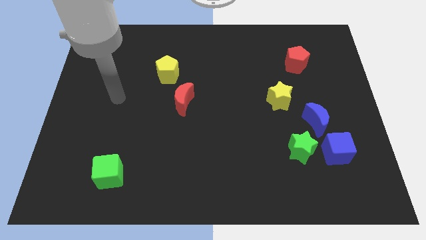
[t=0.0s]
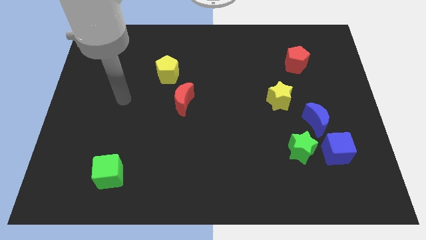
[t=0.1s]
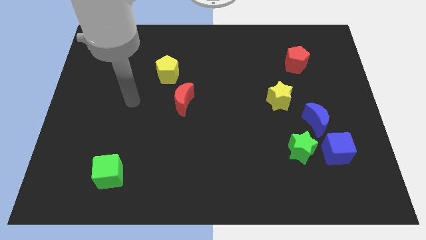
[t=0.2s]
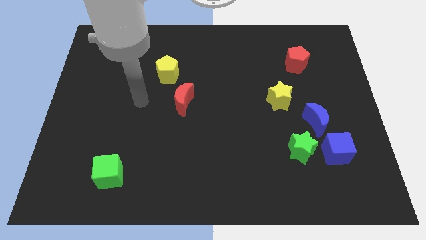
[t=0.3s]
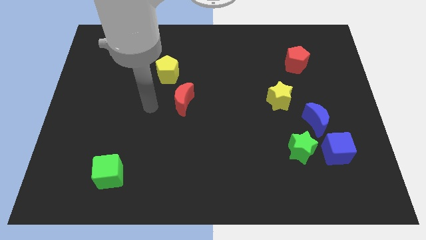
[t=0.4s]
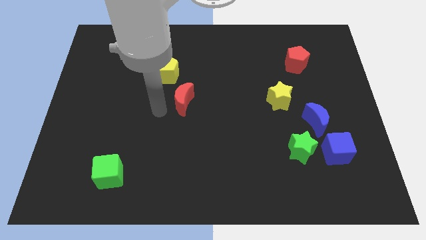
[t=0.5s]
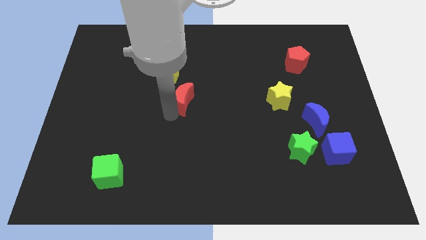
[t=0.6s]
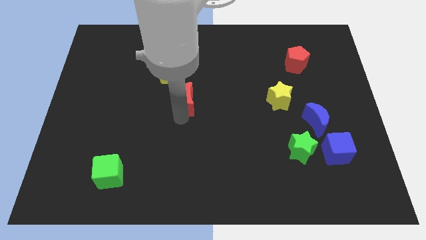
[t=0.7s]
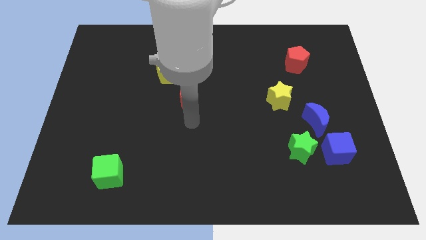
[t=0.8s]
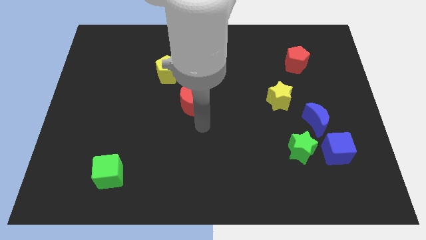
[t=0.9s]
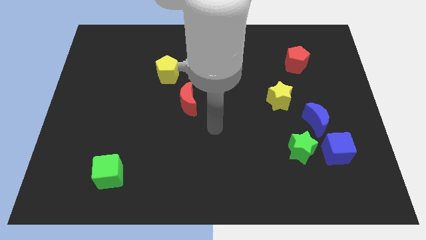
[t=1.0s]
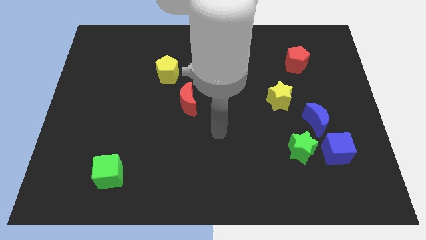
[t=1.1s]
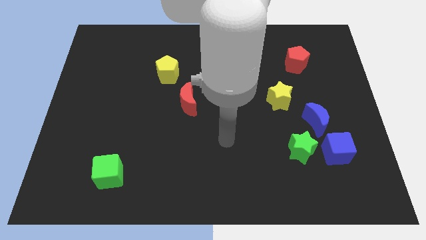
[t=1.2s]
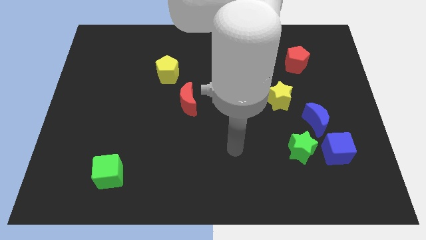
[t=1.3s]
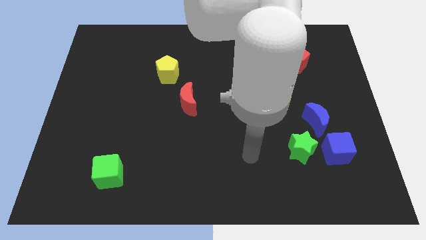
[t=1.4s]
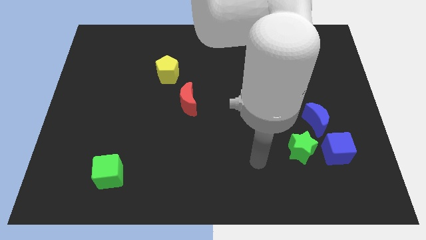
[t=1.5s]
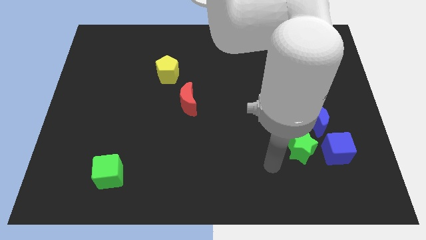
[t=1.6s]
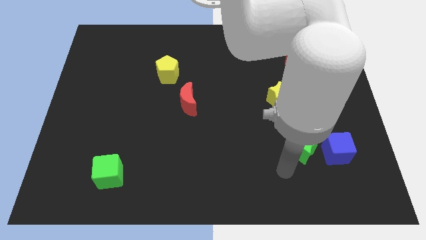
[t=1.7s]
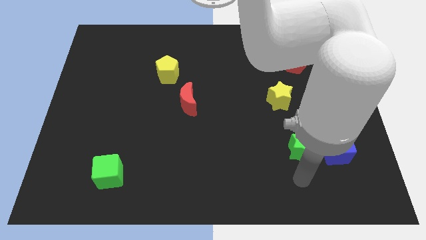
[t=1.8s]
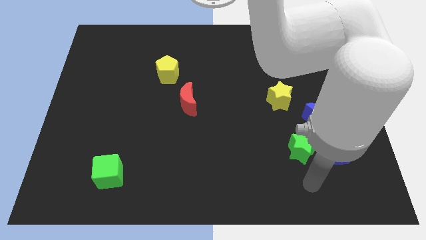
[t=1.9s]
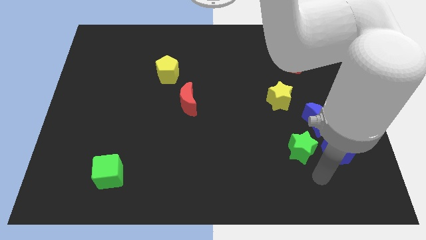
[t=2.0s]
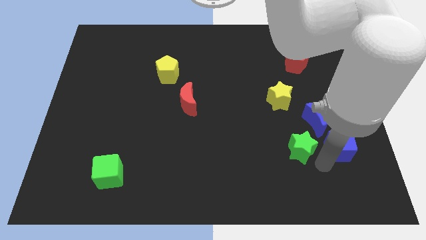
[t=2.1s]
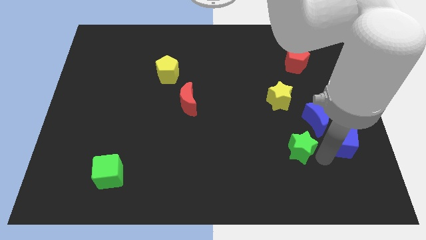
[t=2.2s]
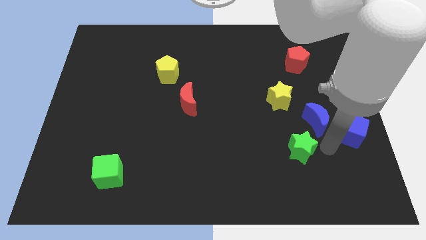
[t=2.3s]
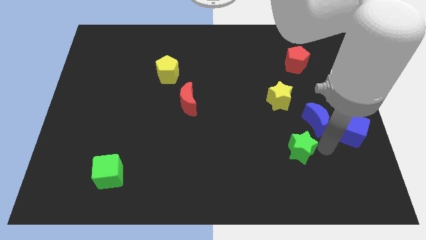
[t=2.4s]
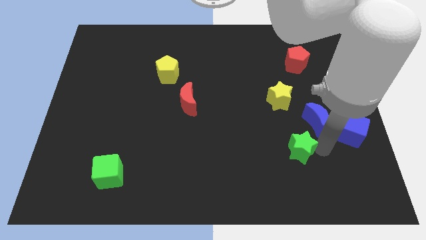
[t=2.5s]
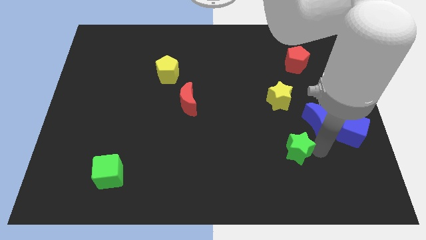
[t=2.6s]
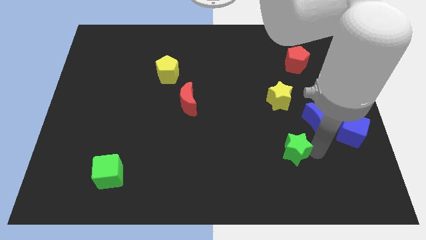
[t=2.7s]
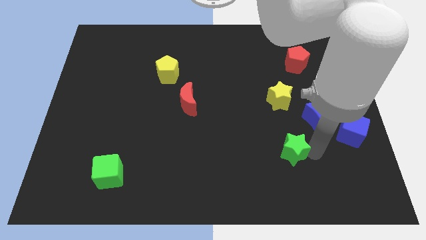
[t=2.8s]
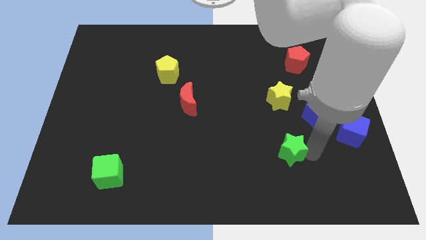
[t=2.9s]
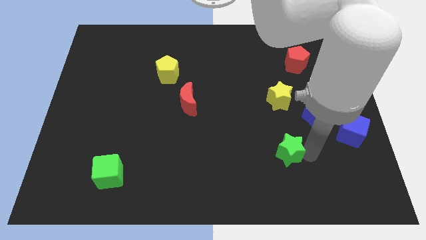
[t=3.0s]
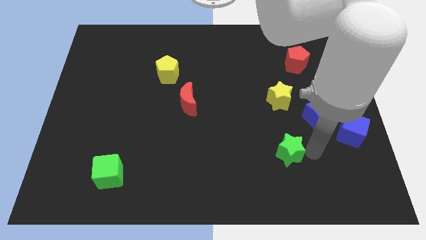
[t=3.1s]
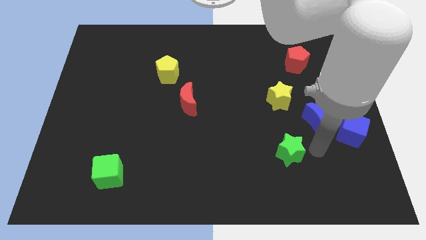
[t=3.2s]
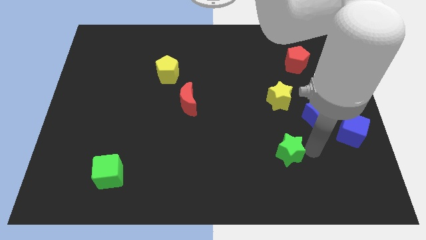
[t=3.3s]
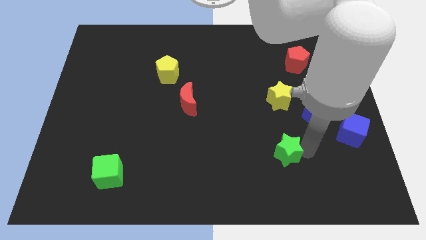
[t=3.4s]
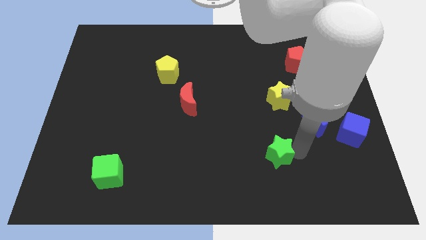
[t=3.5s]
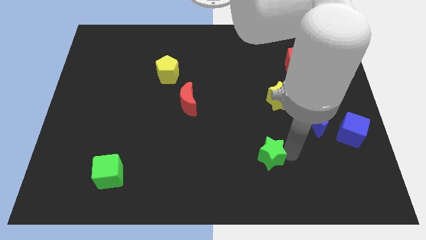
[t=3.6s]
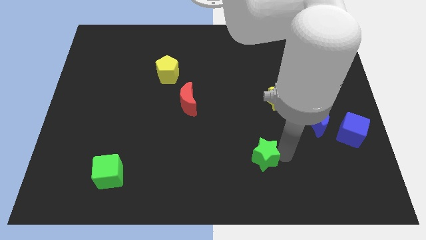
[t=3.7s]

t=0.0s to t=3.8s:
slightly slide the green star to the left

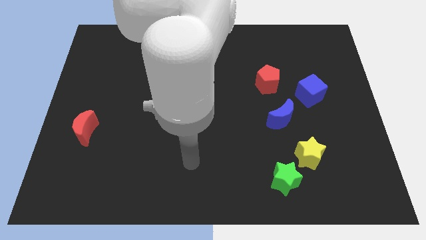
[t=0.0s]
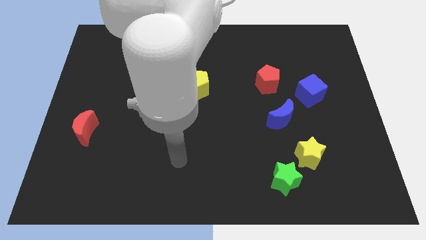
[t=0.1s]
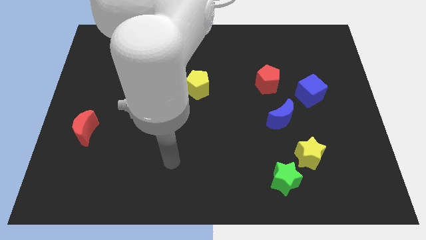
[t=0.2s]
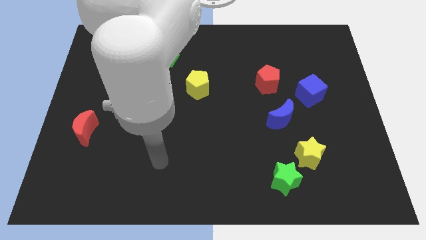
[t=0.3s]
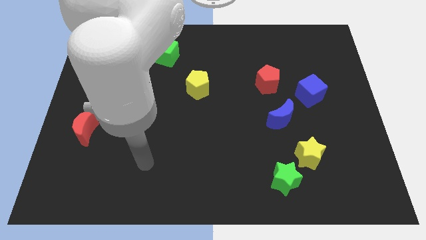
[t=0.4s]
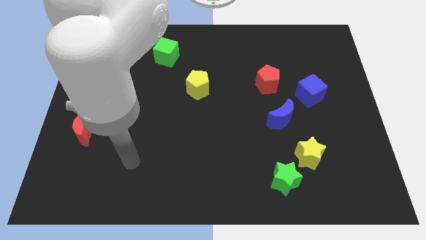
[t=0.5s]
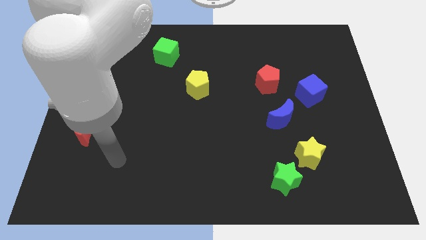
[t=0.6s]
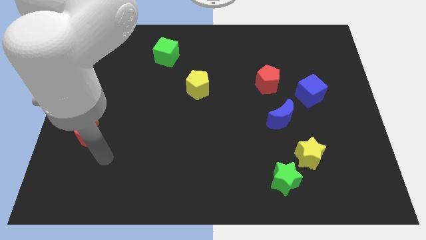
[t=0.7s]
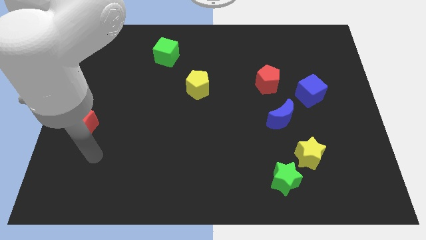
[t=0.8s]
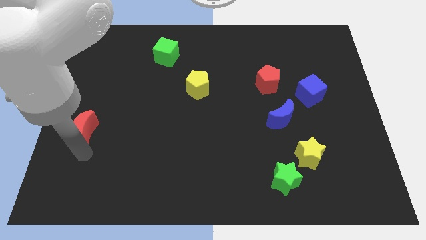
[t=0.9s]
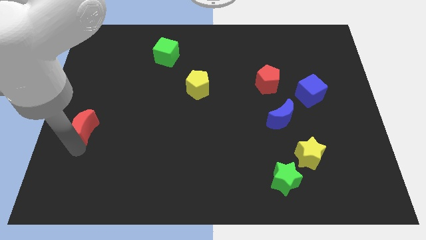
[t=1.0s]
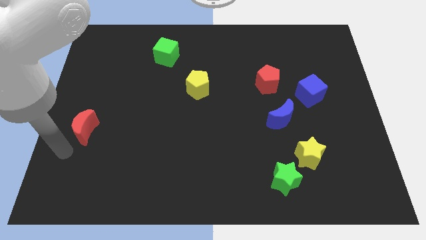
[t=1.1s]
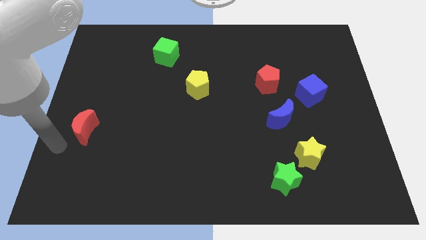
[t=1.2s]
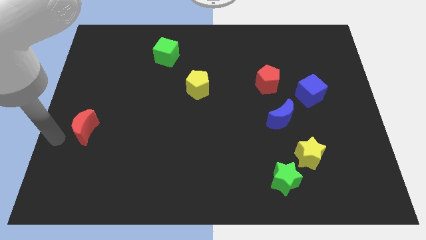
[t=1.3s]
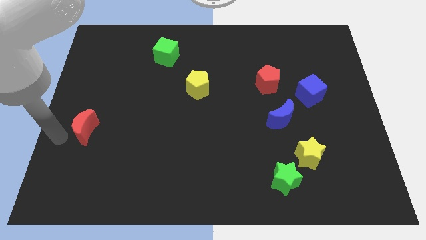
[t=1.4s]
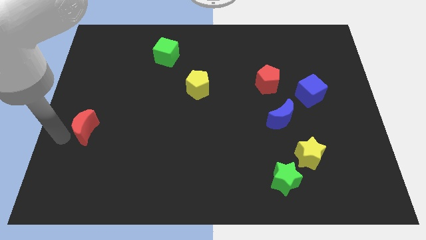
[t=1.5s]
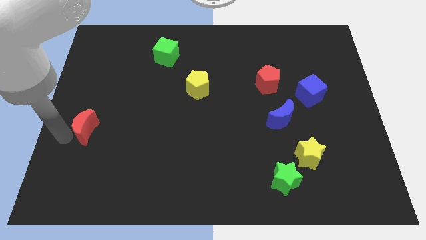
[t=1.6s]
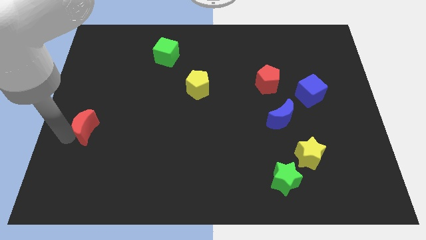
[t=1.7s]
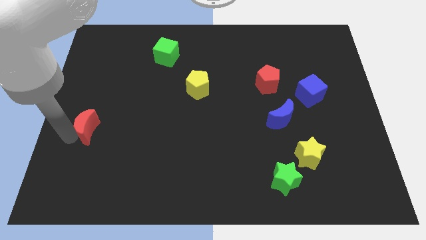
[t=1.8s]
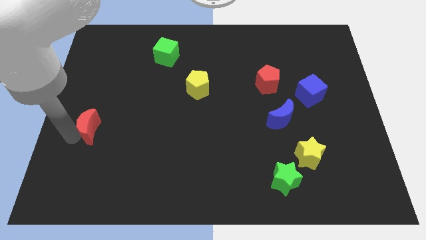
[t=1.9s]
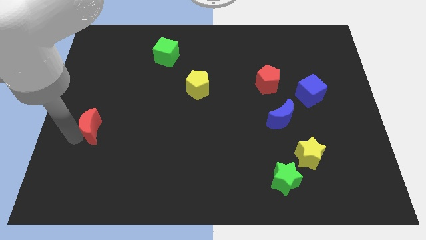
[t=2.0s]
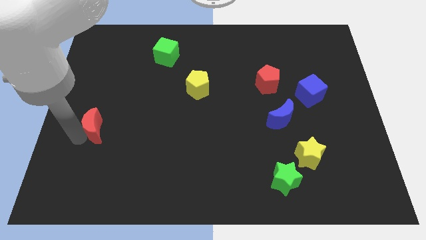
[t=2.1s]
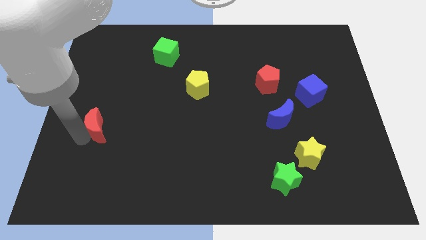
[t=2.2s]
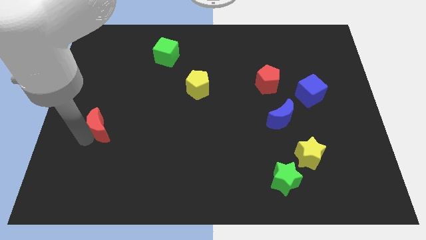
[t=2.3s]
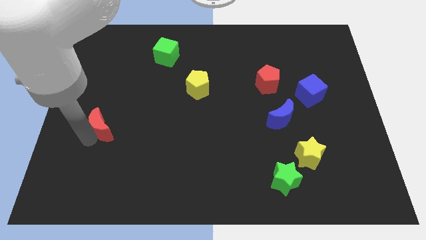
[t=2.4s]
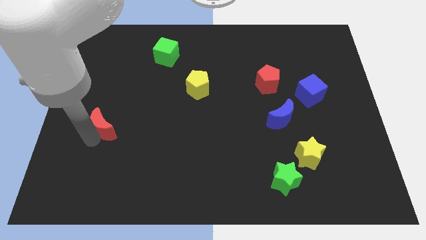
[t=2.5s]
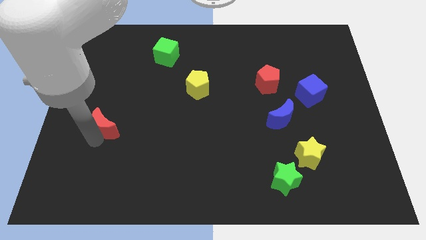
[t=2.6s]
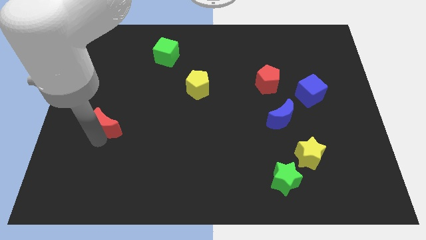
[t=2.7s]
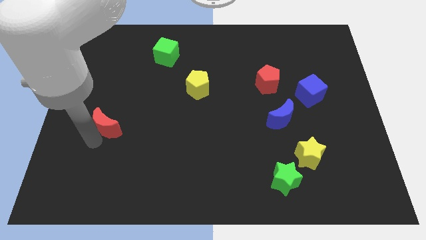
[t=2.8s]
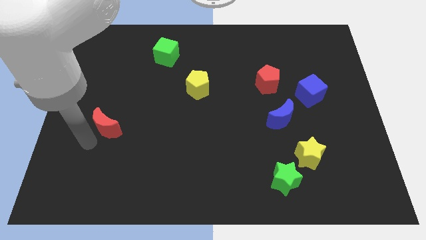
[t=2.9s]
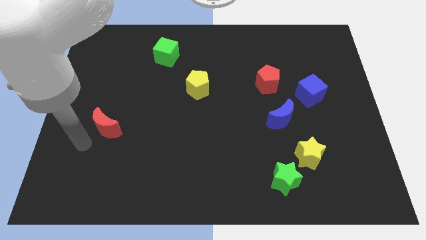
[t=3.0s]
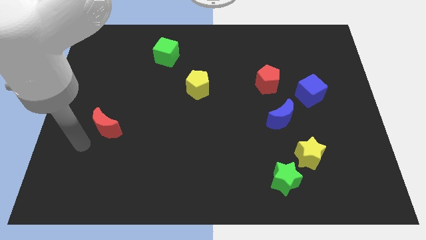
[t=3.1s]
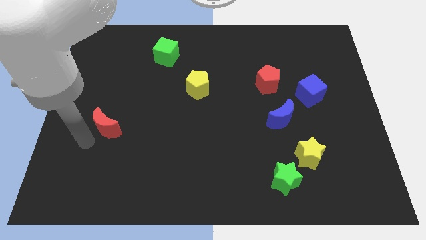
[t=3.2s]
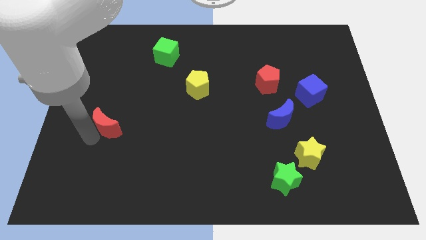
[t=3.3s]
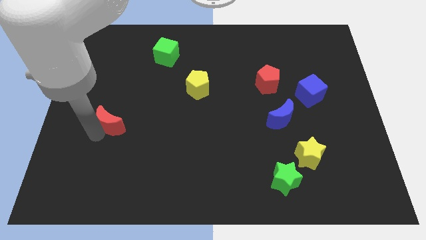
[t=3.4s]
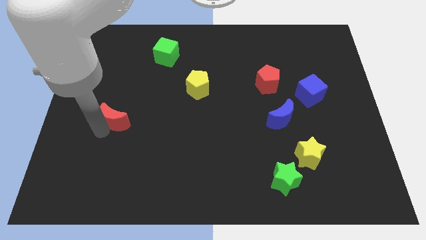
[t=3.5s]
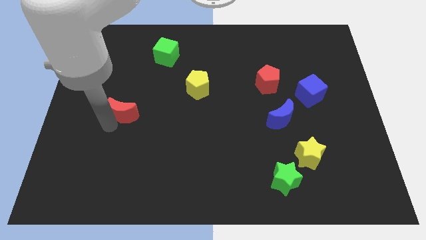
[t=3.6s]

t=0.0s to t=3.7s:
slightly move the red moon upwards and right

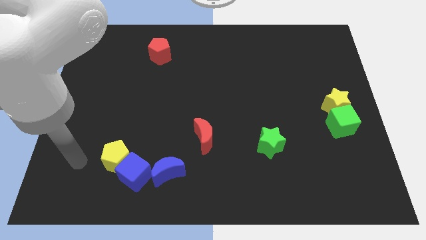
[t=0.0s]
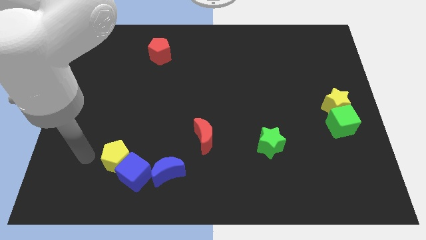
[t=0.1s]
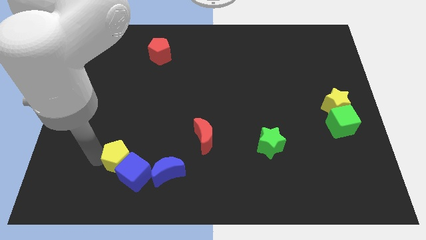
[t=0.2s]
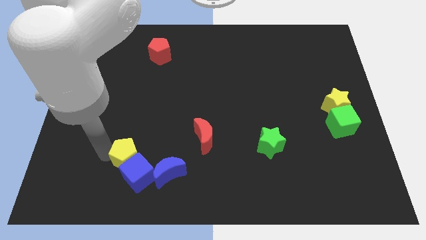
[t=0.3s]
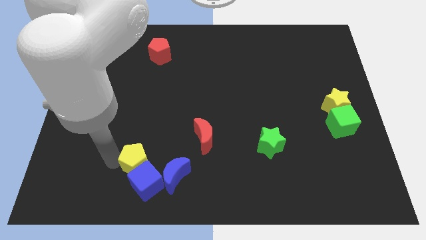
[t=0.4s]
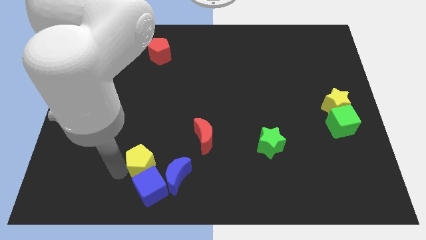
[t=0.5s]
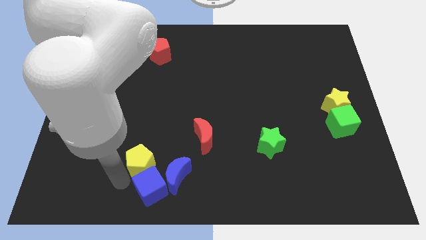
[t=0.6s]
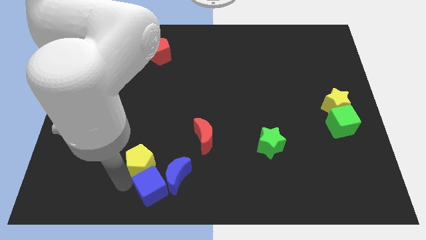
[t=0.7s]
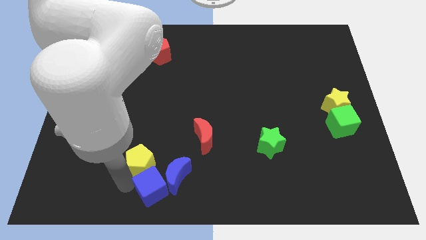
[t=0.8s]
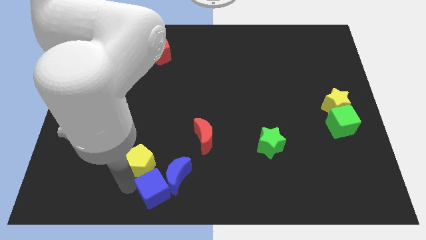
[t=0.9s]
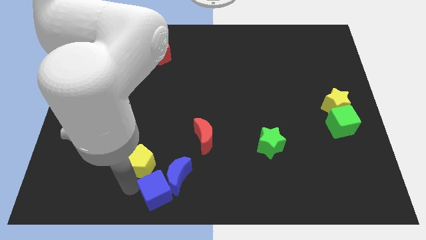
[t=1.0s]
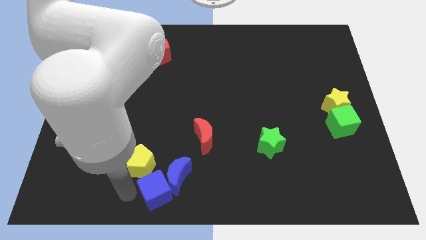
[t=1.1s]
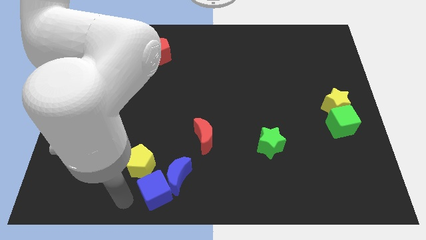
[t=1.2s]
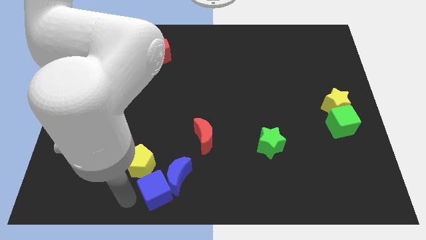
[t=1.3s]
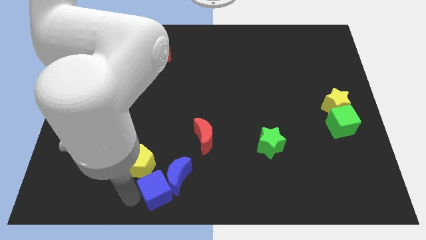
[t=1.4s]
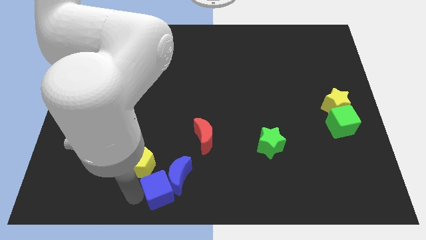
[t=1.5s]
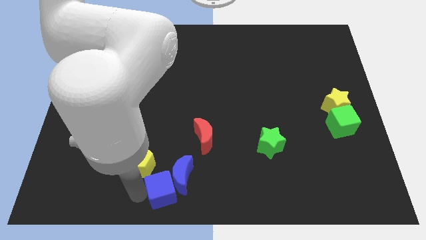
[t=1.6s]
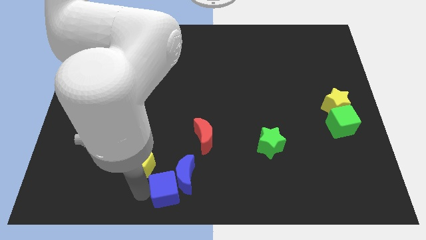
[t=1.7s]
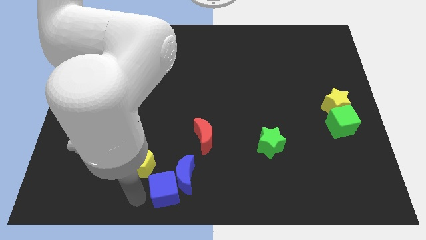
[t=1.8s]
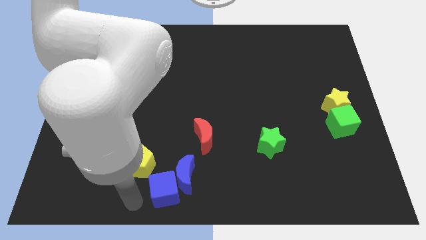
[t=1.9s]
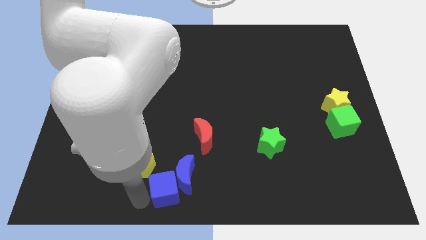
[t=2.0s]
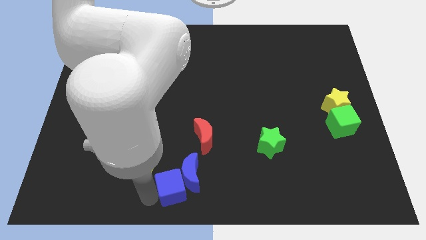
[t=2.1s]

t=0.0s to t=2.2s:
push the blue cube a little bit to the right
